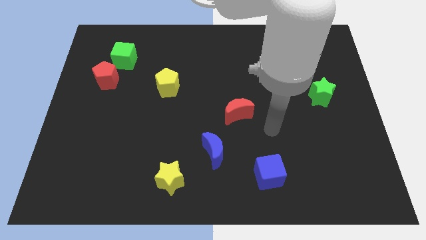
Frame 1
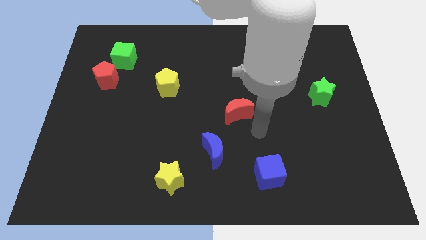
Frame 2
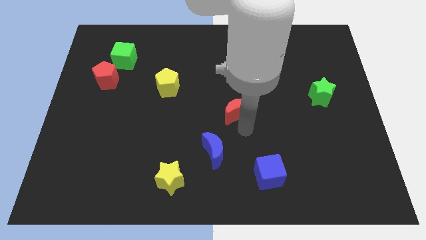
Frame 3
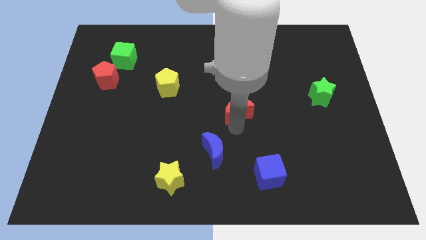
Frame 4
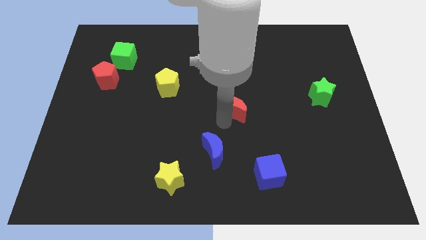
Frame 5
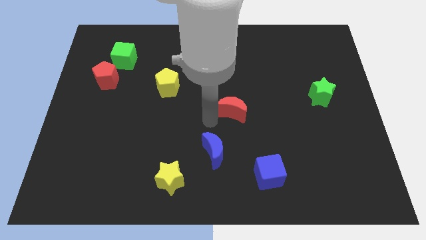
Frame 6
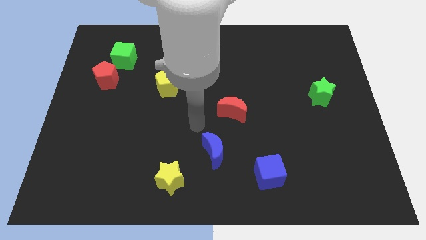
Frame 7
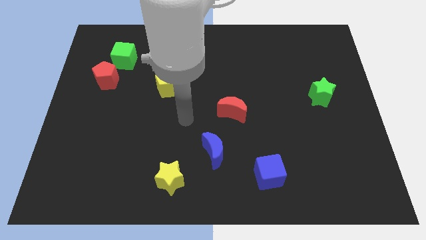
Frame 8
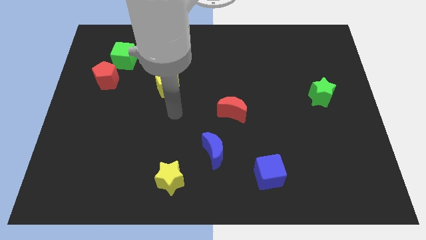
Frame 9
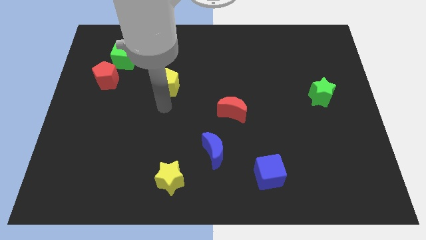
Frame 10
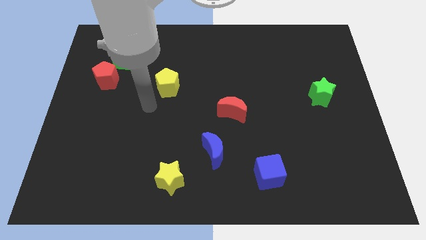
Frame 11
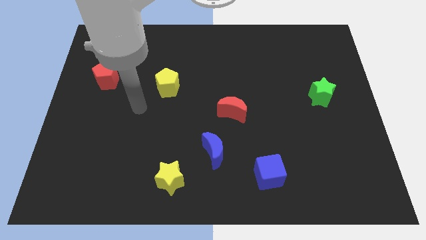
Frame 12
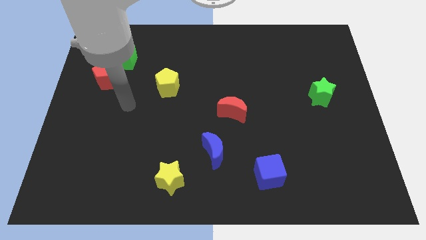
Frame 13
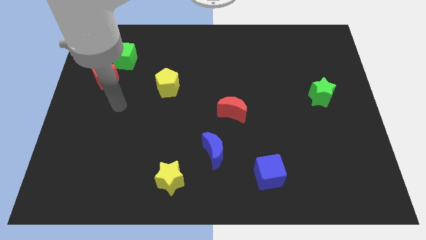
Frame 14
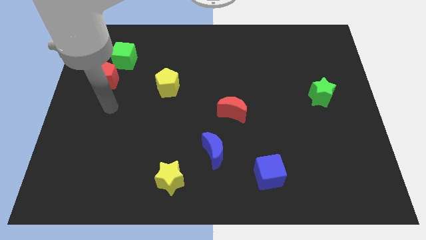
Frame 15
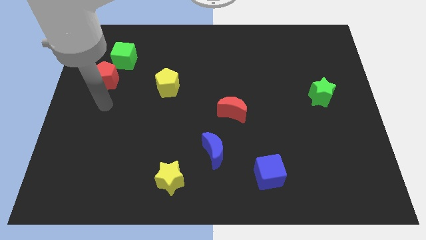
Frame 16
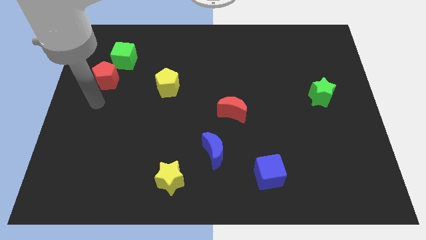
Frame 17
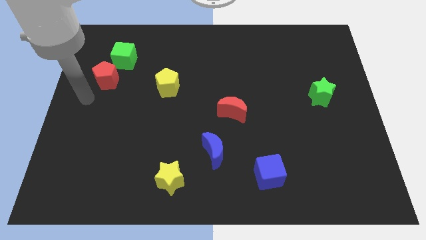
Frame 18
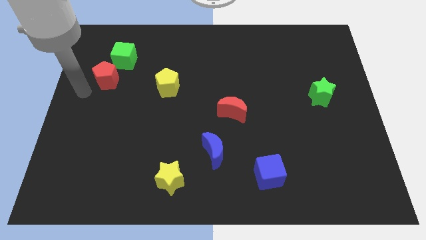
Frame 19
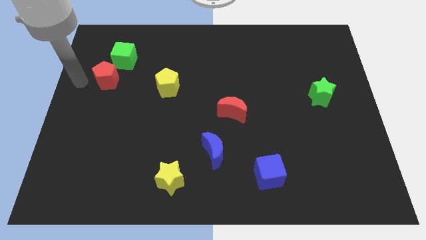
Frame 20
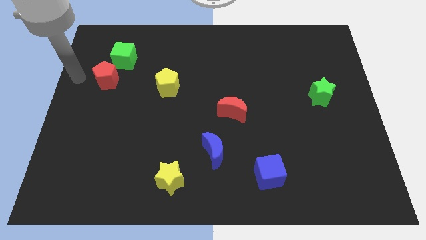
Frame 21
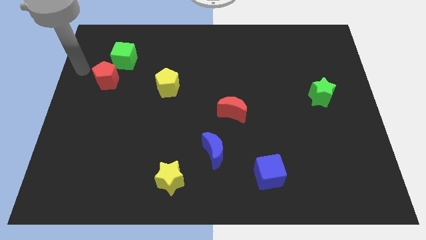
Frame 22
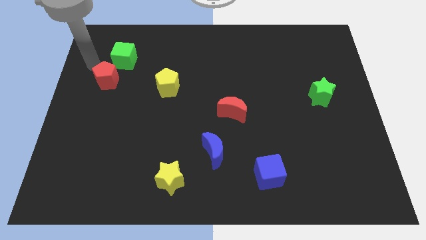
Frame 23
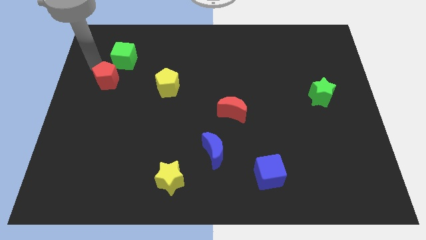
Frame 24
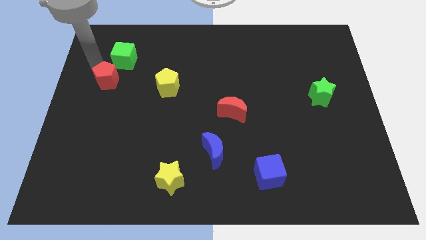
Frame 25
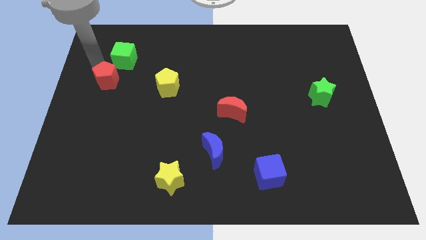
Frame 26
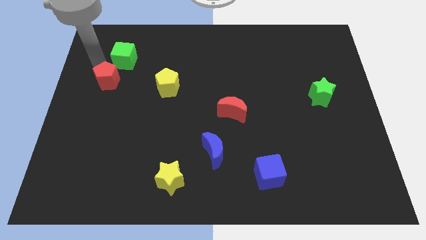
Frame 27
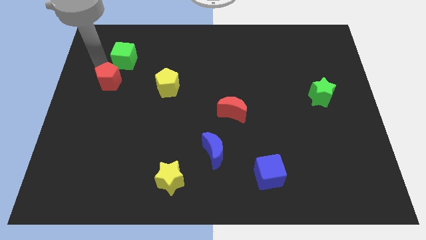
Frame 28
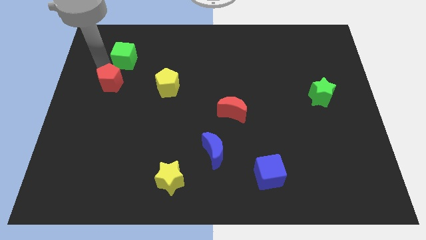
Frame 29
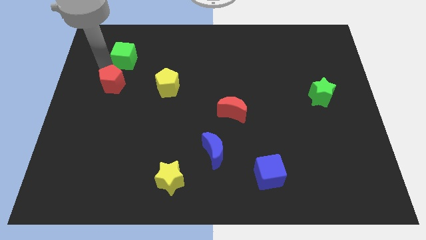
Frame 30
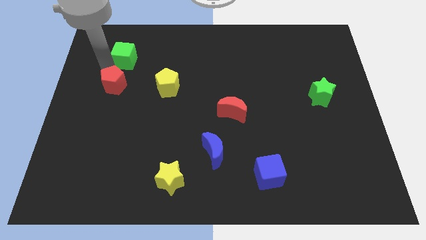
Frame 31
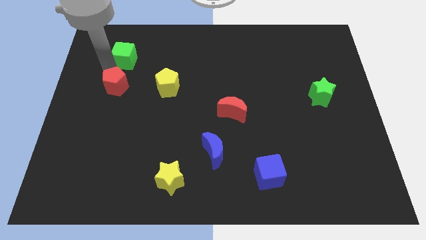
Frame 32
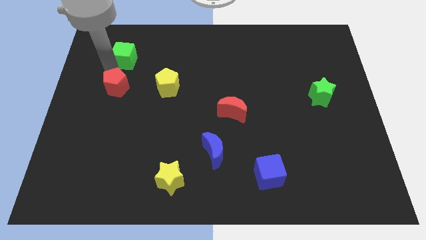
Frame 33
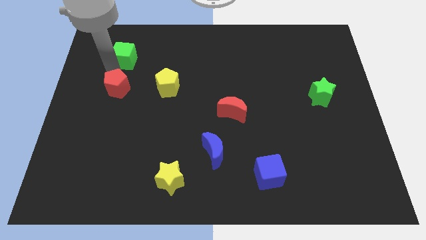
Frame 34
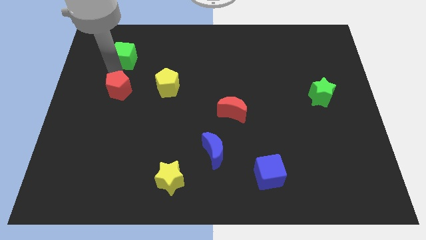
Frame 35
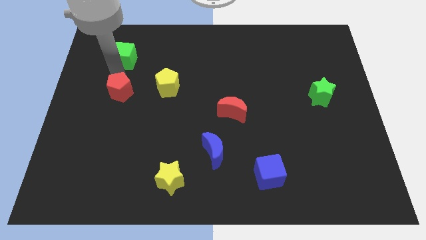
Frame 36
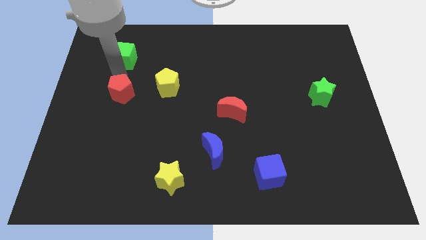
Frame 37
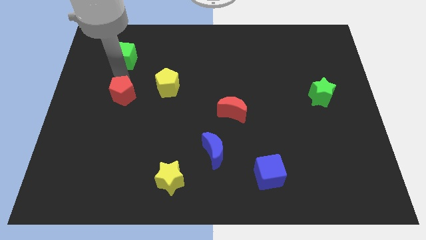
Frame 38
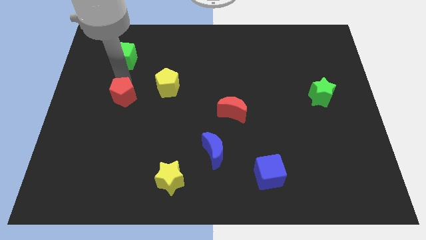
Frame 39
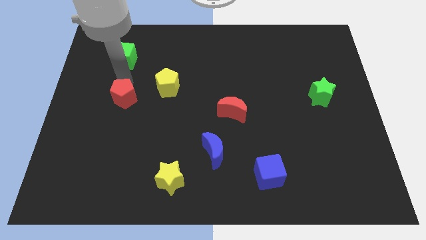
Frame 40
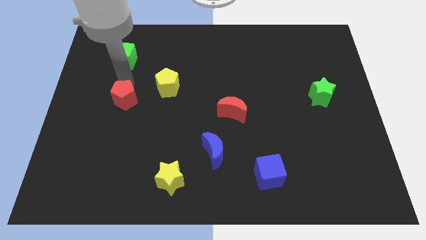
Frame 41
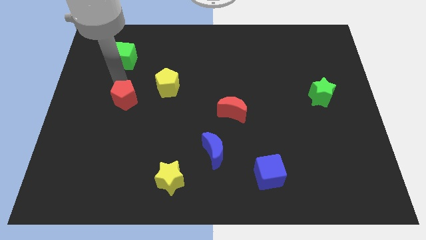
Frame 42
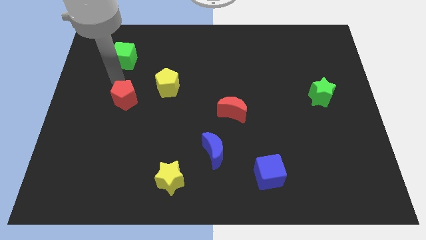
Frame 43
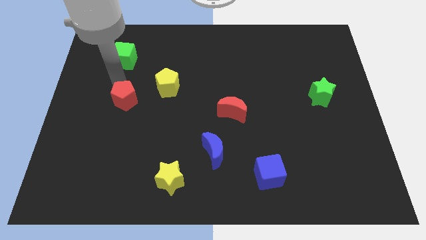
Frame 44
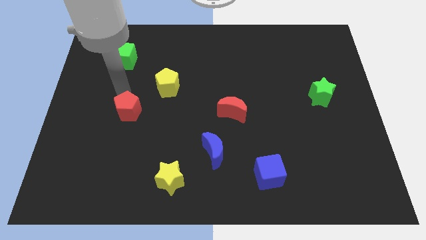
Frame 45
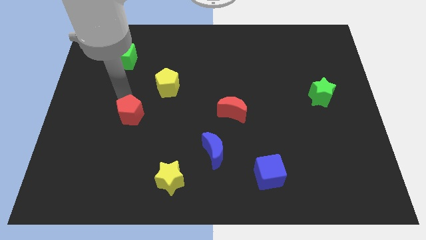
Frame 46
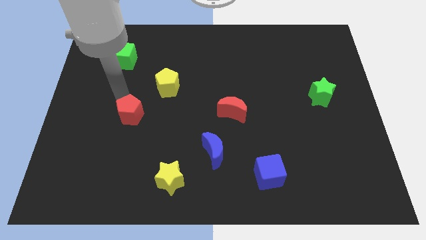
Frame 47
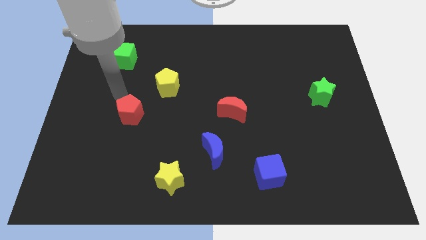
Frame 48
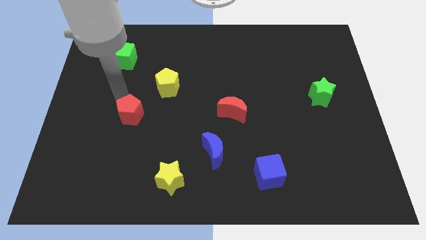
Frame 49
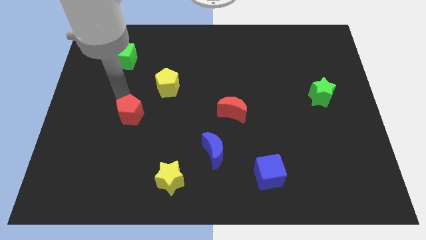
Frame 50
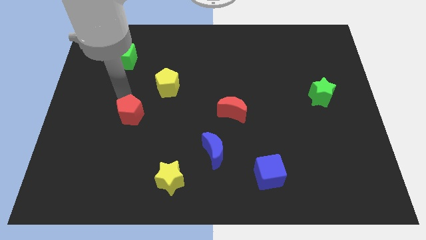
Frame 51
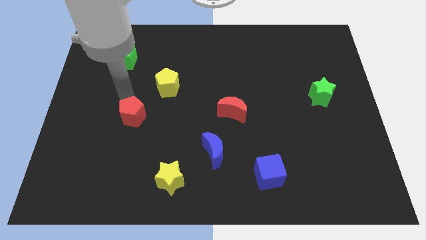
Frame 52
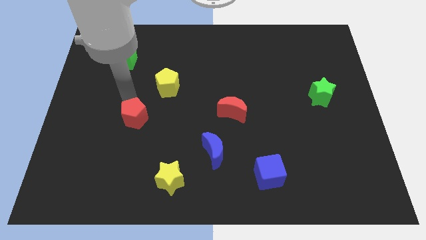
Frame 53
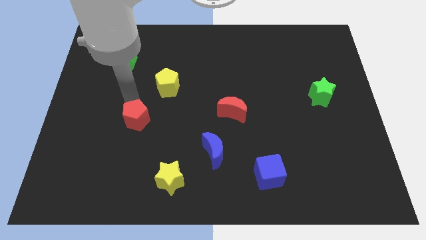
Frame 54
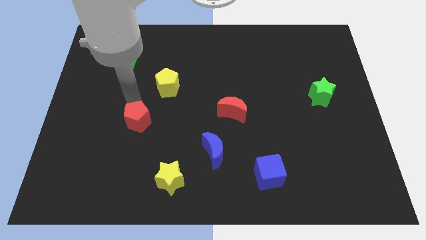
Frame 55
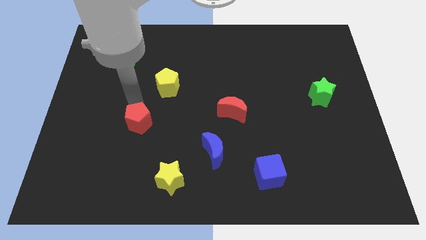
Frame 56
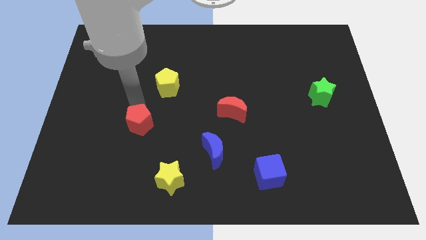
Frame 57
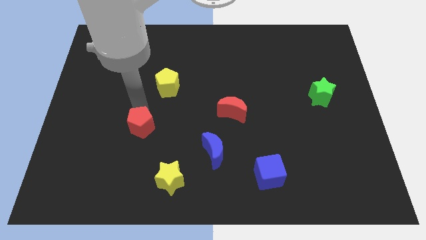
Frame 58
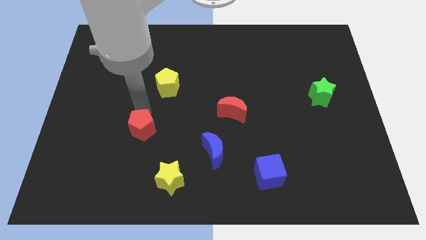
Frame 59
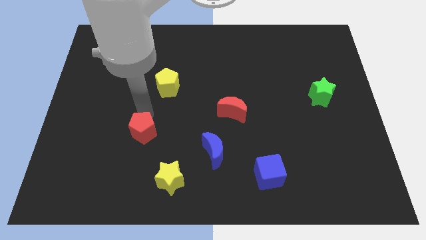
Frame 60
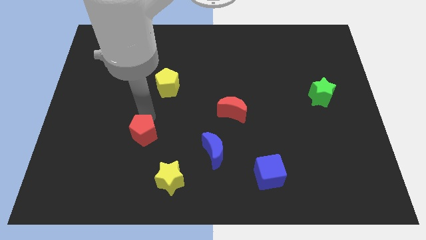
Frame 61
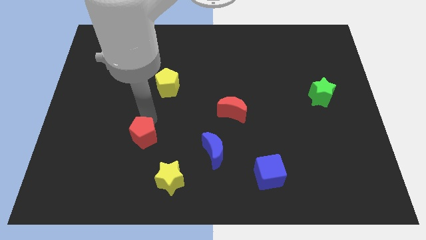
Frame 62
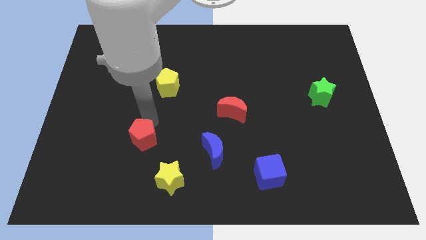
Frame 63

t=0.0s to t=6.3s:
put the red pentagon to the top left side of the yellow star

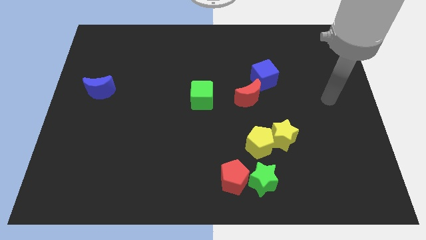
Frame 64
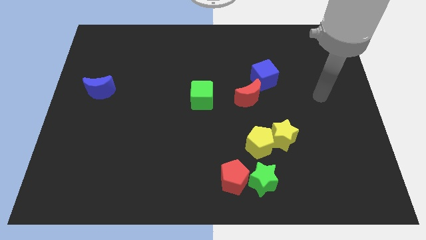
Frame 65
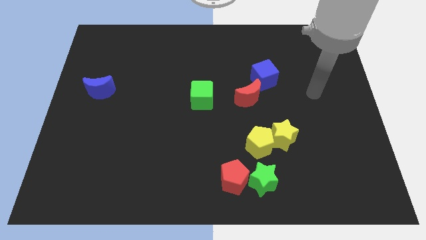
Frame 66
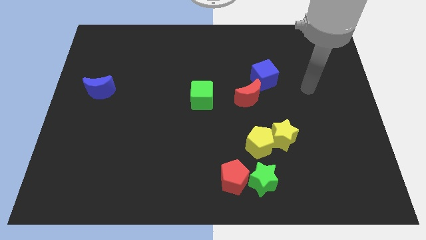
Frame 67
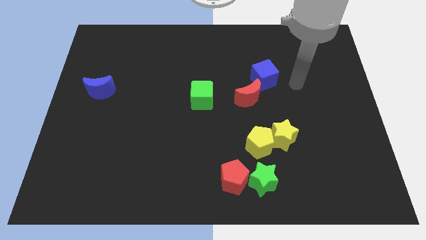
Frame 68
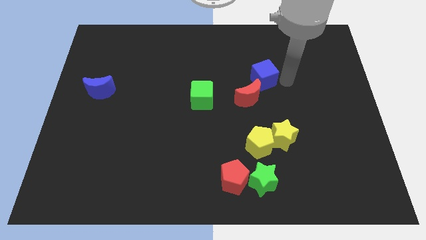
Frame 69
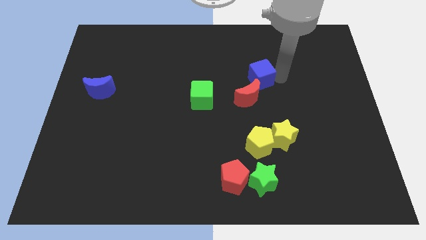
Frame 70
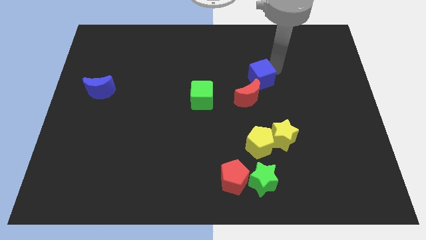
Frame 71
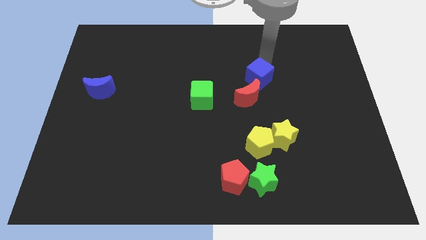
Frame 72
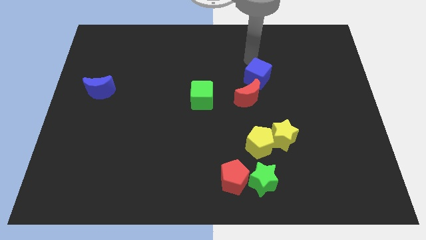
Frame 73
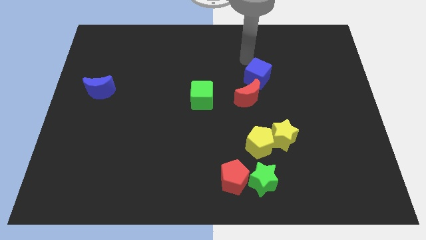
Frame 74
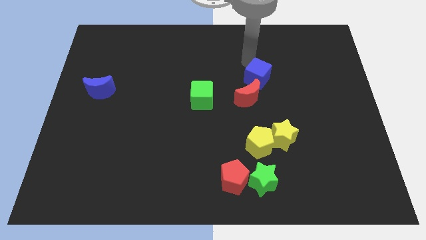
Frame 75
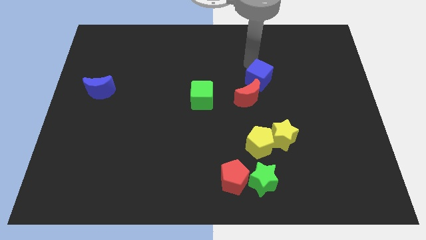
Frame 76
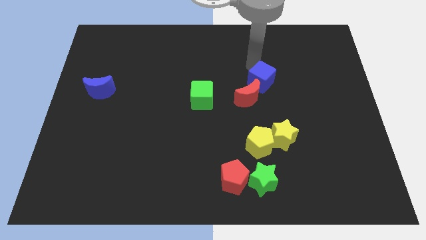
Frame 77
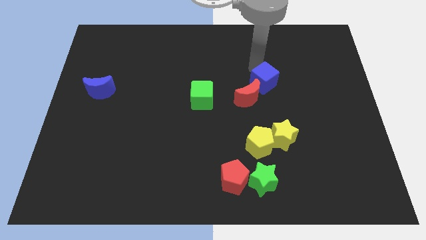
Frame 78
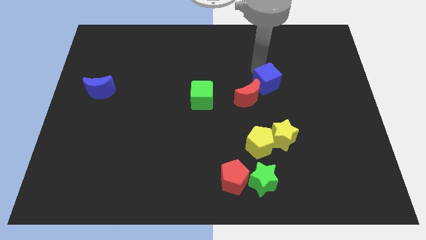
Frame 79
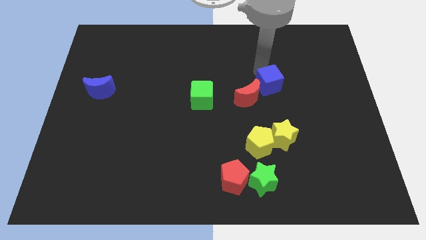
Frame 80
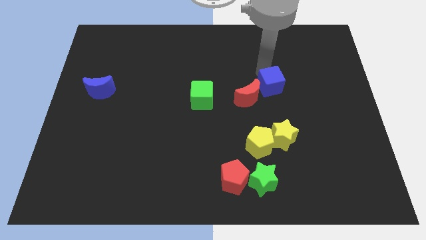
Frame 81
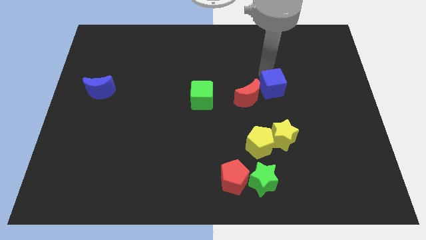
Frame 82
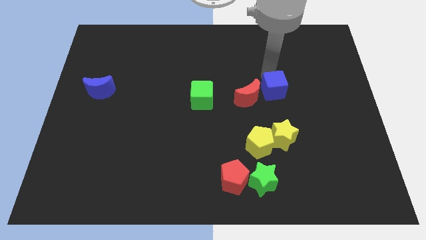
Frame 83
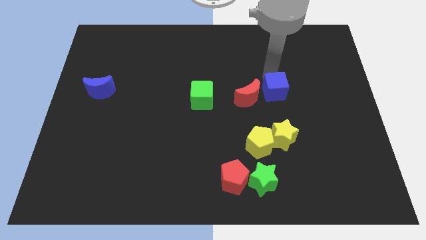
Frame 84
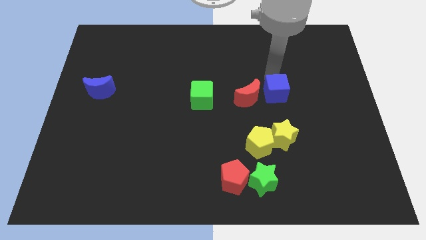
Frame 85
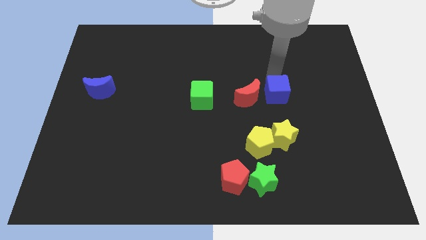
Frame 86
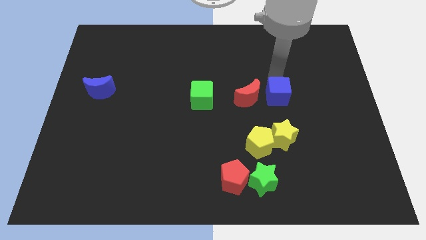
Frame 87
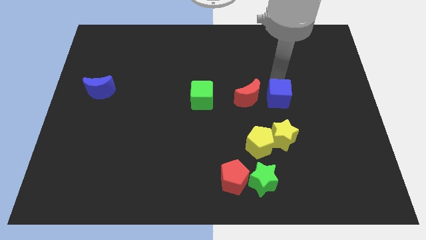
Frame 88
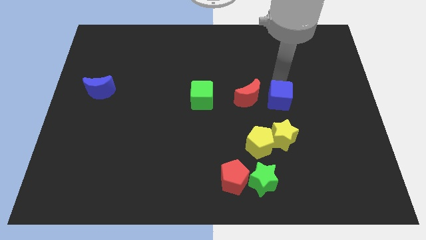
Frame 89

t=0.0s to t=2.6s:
put the blue cube diagonally down and to the right of the red moon
